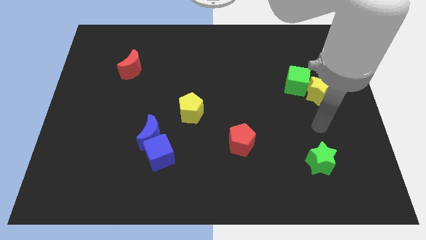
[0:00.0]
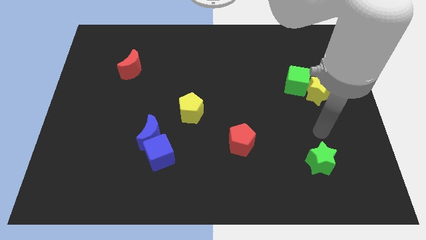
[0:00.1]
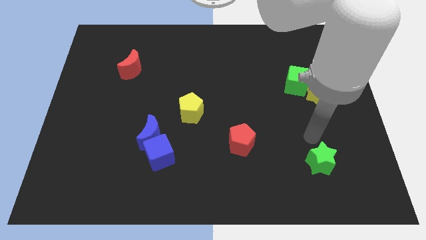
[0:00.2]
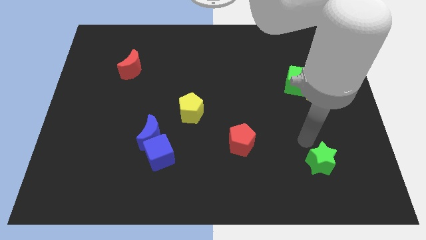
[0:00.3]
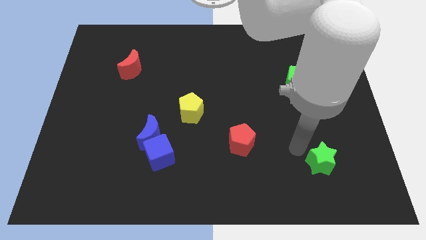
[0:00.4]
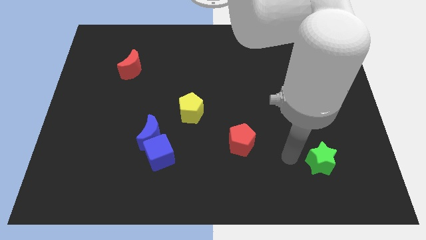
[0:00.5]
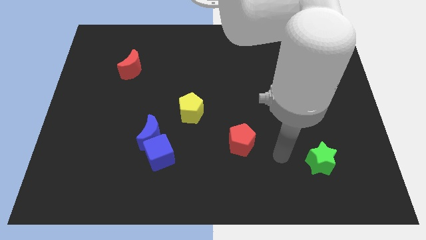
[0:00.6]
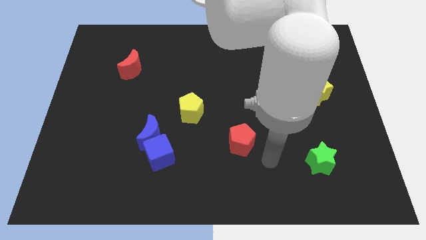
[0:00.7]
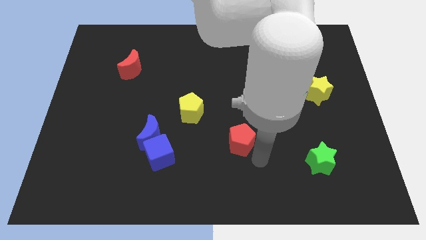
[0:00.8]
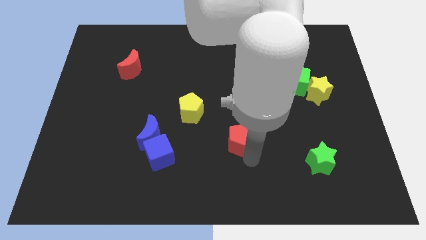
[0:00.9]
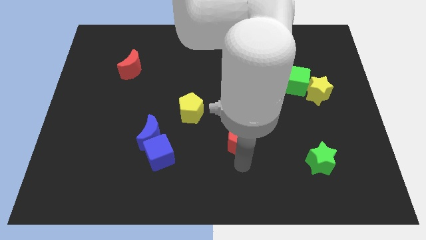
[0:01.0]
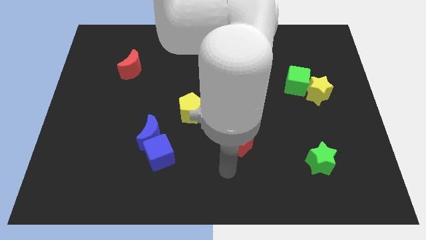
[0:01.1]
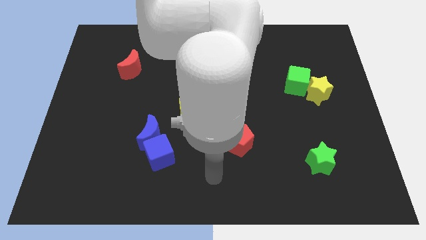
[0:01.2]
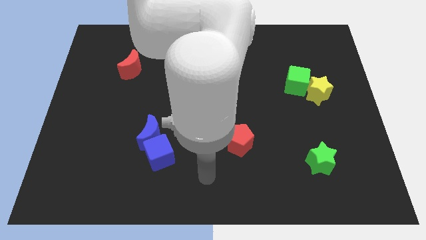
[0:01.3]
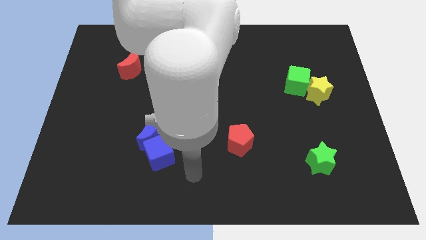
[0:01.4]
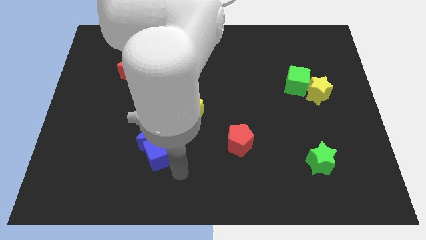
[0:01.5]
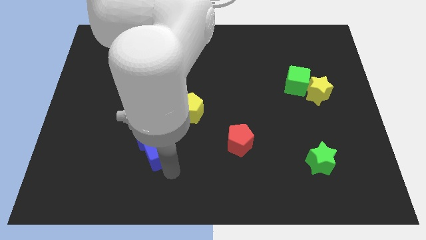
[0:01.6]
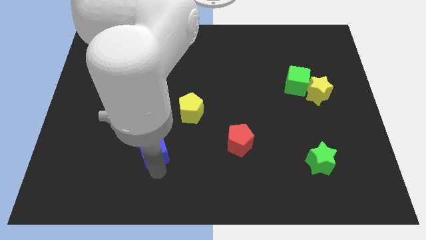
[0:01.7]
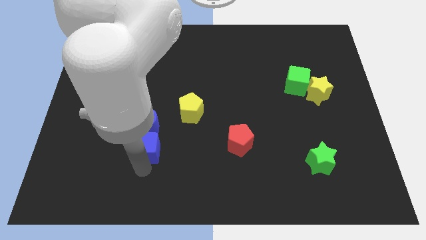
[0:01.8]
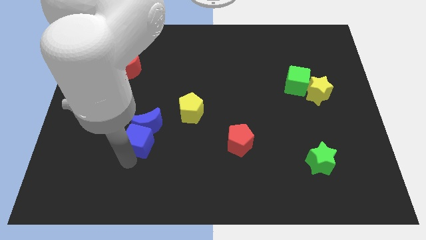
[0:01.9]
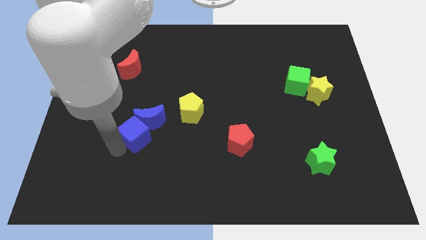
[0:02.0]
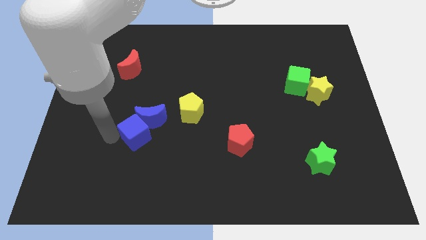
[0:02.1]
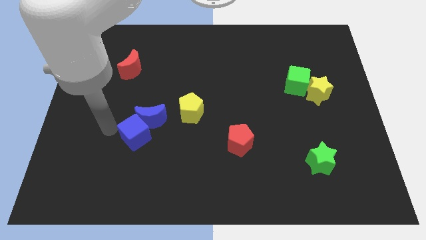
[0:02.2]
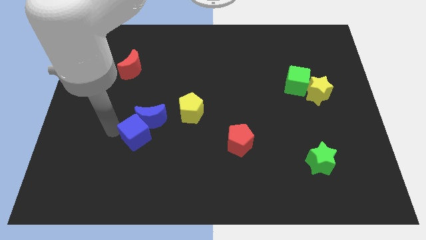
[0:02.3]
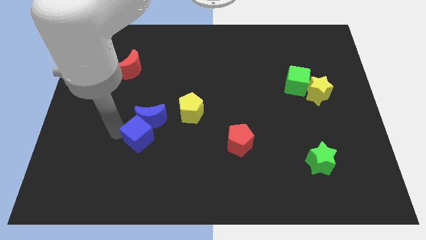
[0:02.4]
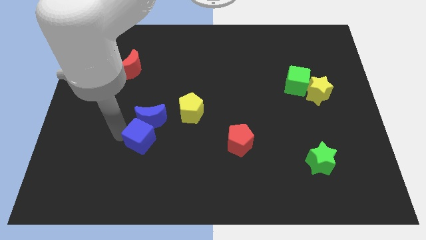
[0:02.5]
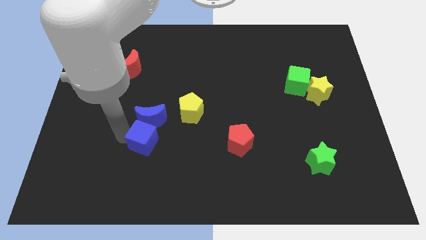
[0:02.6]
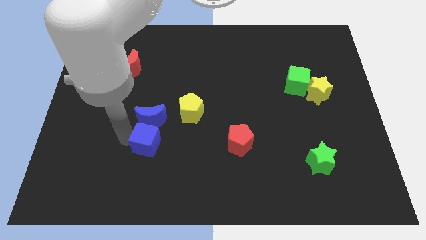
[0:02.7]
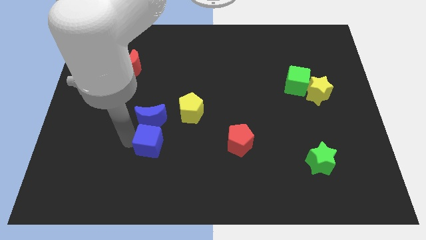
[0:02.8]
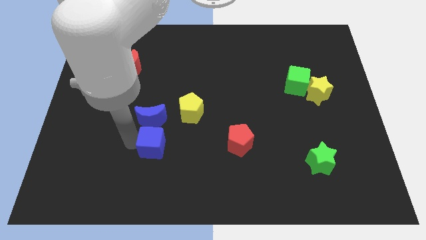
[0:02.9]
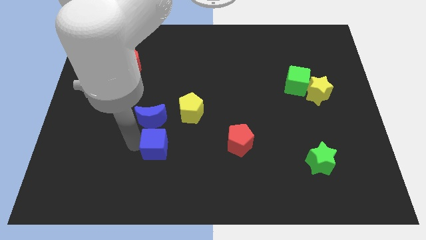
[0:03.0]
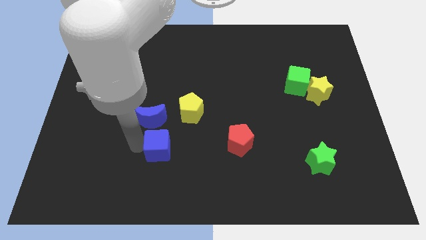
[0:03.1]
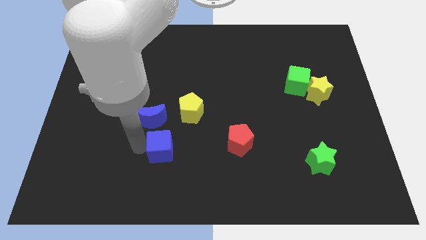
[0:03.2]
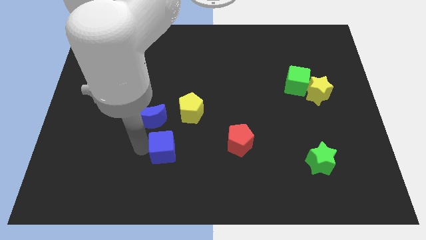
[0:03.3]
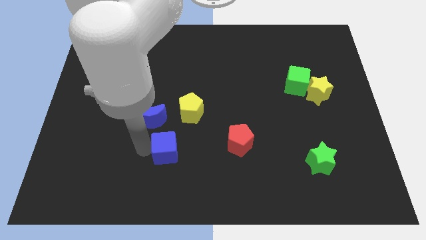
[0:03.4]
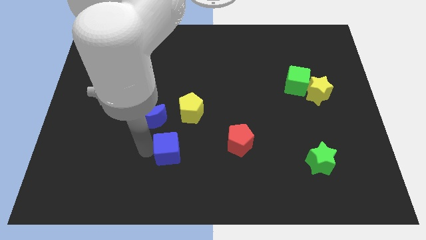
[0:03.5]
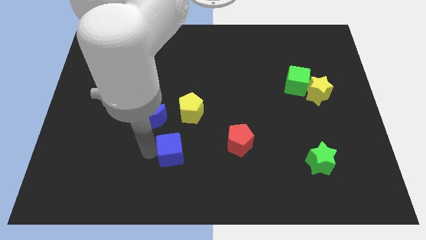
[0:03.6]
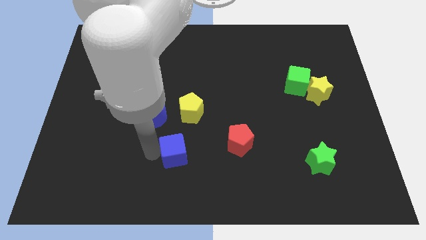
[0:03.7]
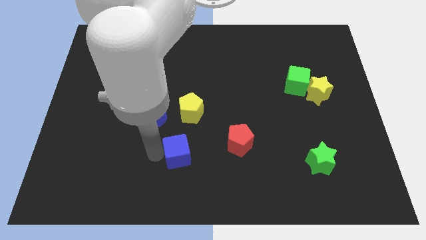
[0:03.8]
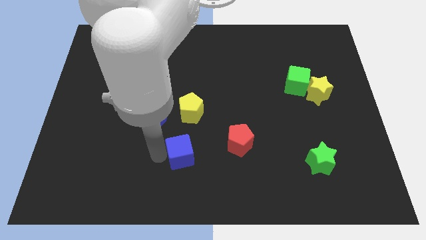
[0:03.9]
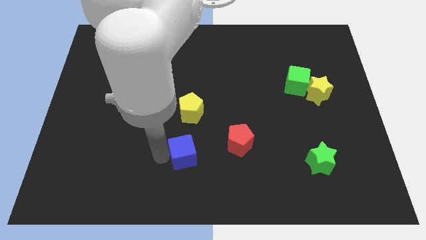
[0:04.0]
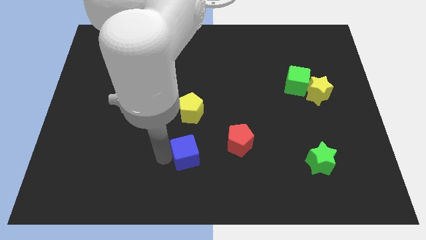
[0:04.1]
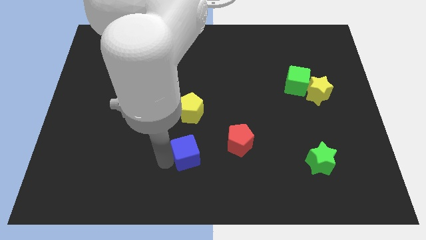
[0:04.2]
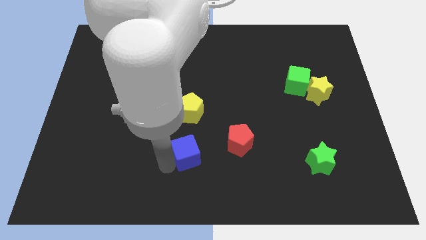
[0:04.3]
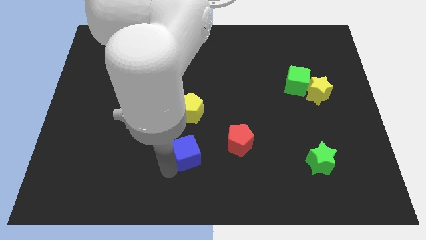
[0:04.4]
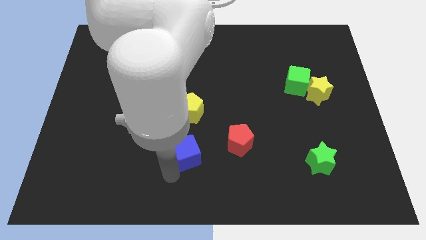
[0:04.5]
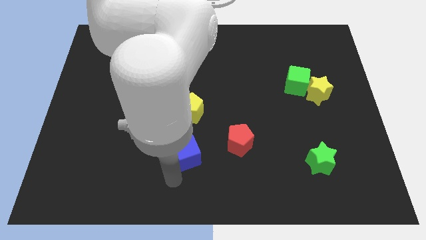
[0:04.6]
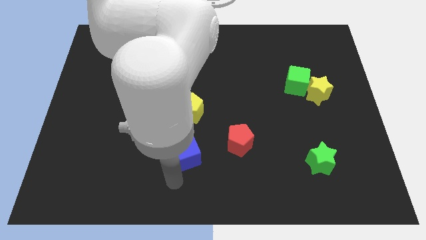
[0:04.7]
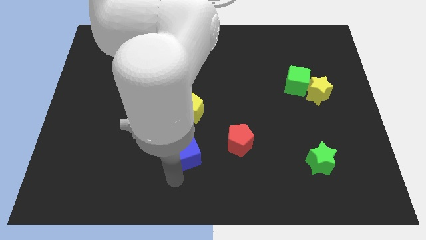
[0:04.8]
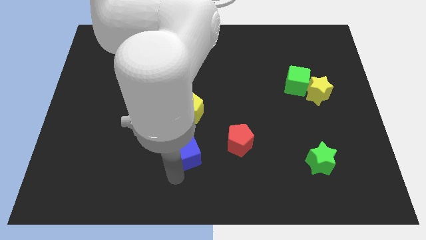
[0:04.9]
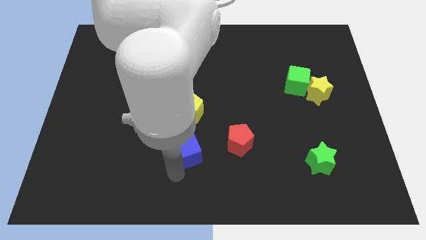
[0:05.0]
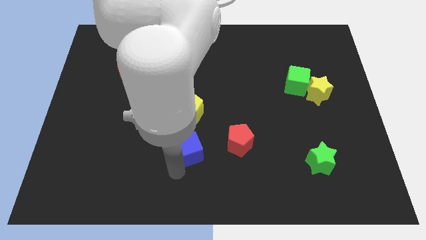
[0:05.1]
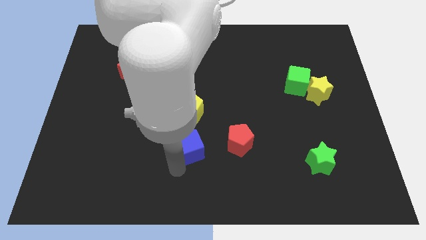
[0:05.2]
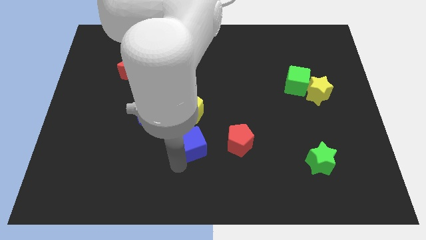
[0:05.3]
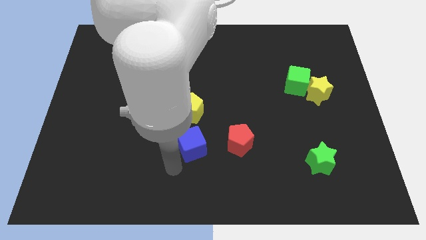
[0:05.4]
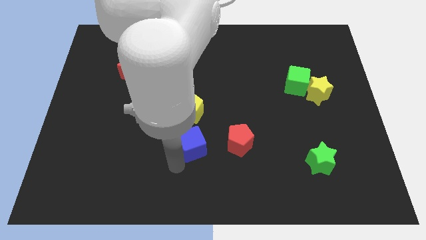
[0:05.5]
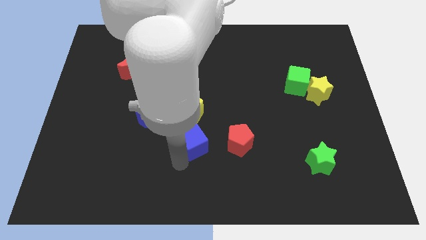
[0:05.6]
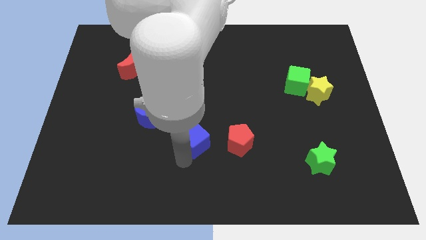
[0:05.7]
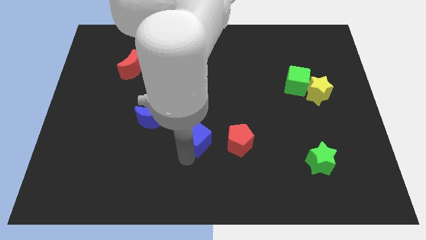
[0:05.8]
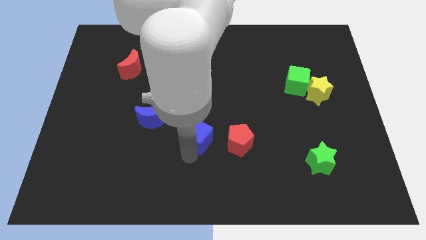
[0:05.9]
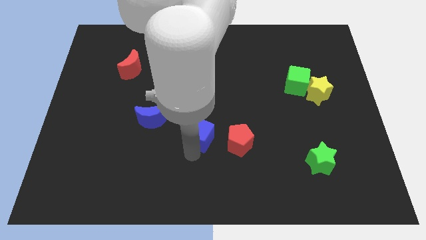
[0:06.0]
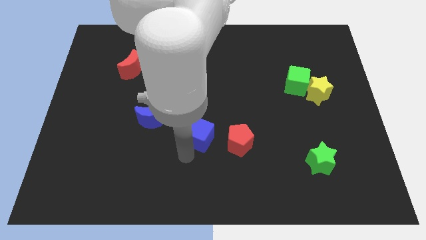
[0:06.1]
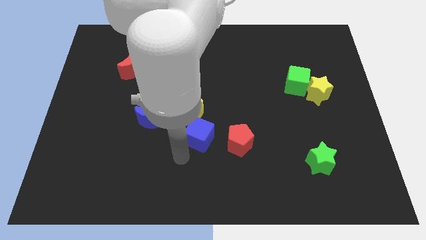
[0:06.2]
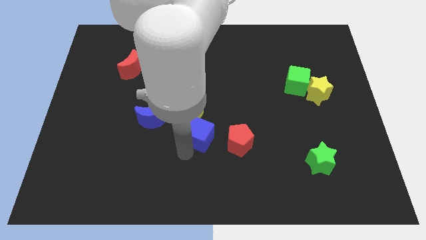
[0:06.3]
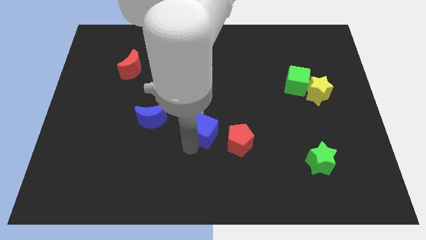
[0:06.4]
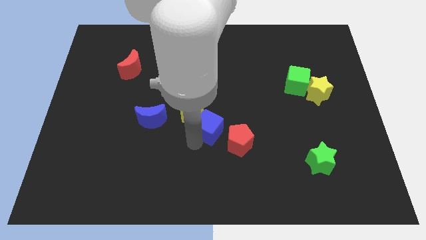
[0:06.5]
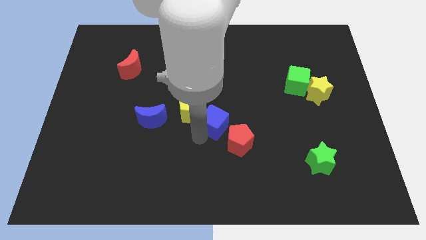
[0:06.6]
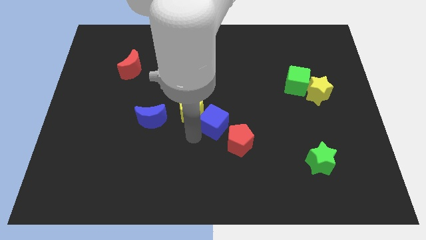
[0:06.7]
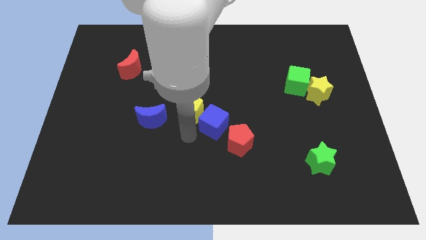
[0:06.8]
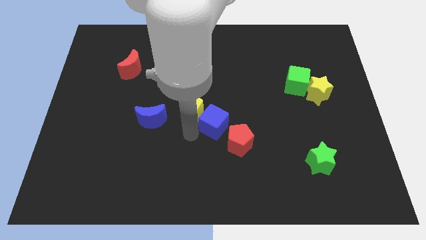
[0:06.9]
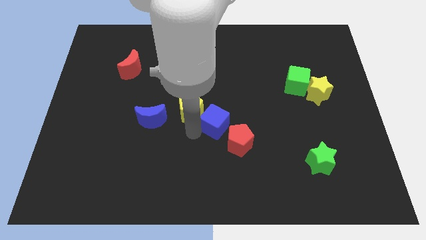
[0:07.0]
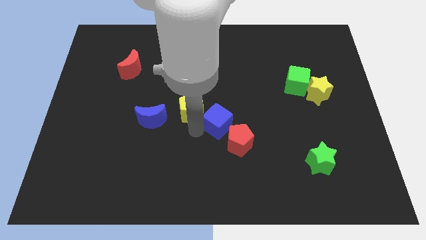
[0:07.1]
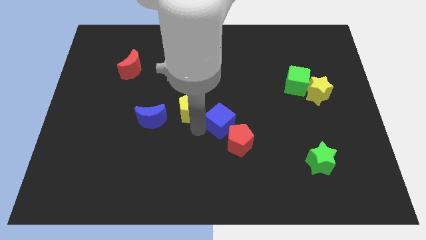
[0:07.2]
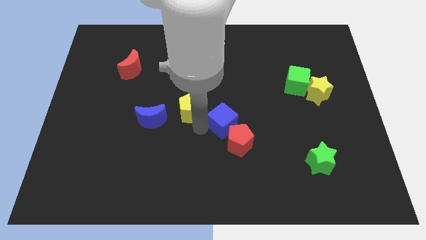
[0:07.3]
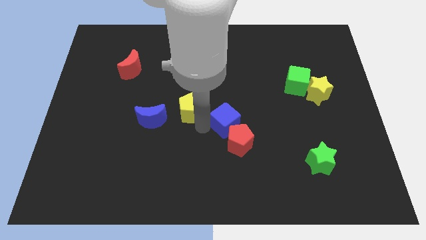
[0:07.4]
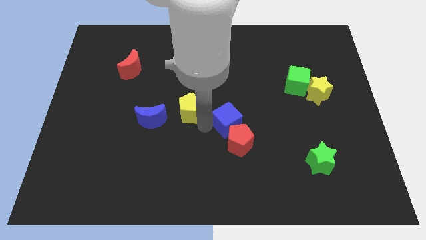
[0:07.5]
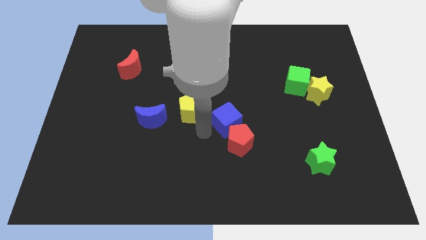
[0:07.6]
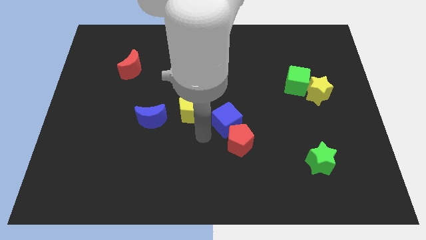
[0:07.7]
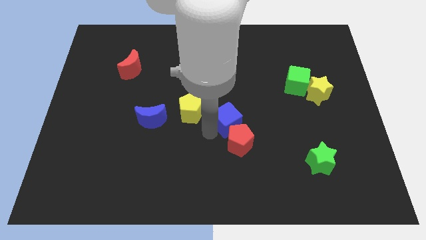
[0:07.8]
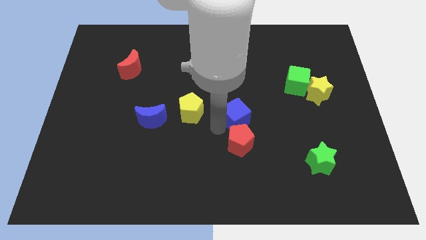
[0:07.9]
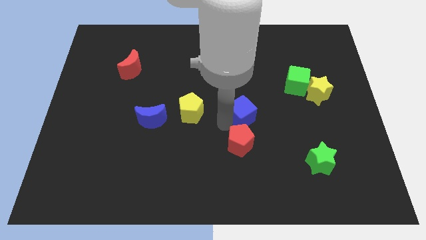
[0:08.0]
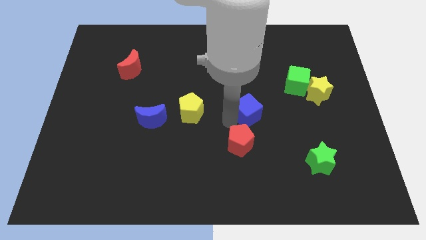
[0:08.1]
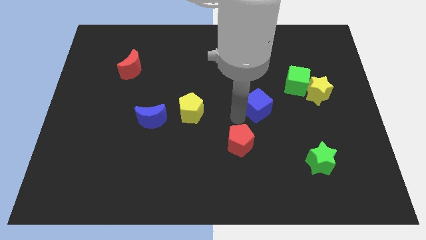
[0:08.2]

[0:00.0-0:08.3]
push the blue cube to the bottom left of the green cube

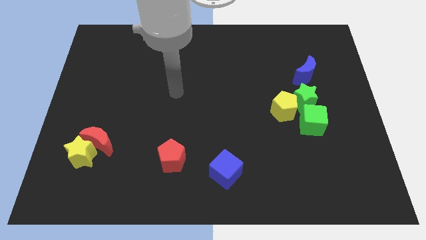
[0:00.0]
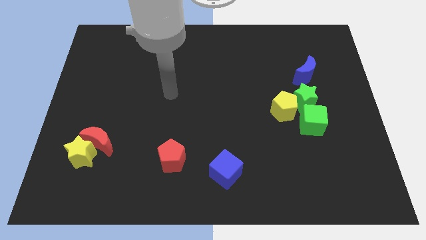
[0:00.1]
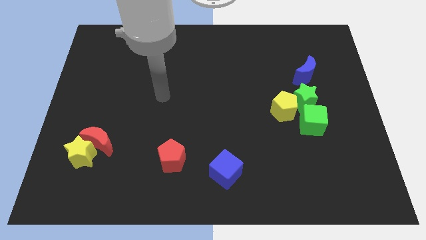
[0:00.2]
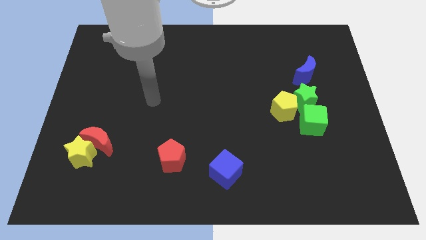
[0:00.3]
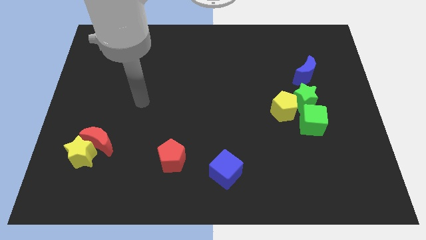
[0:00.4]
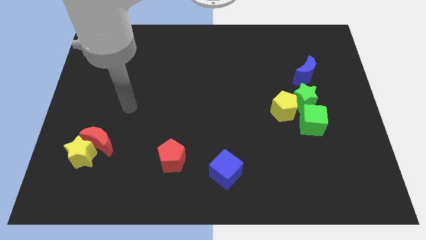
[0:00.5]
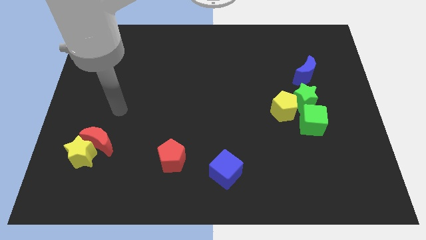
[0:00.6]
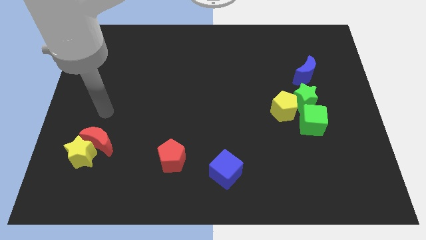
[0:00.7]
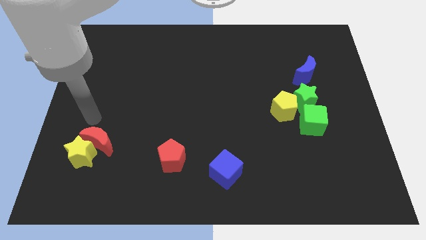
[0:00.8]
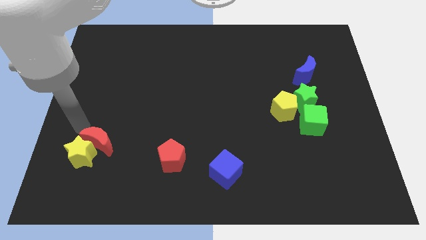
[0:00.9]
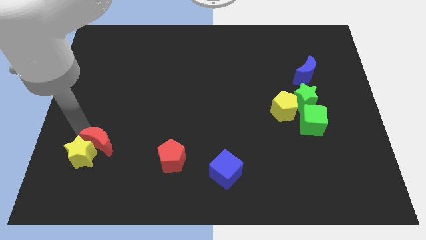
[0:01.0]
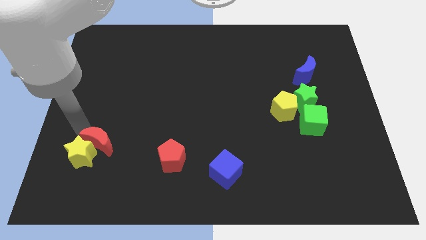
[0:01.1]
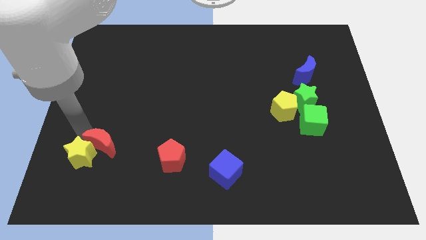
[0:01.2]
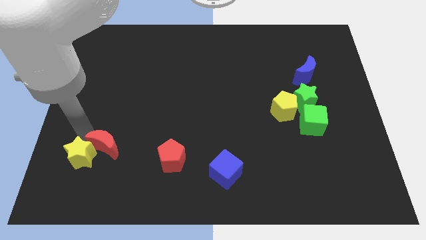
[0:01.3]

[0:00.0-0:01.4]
put the red moon to the left of the red pentagon
